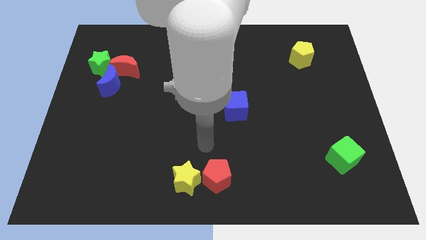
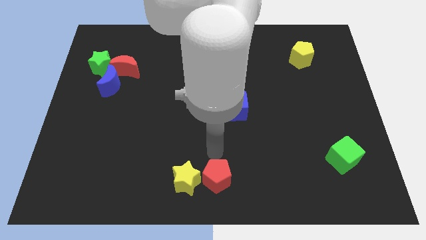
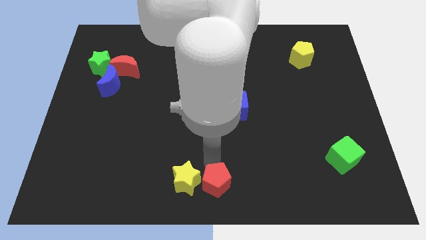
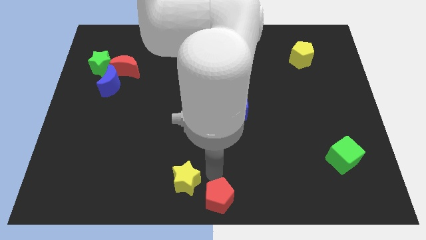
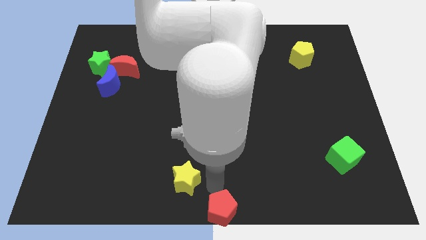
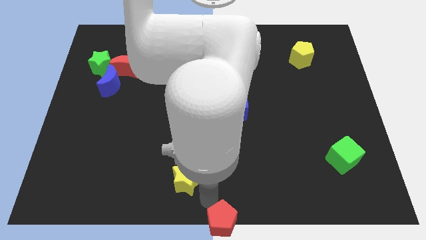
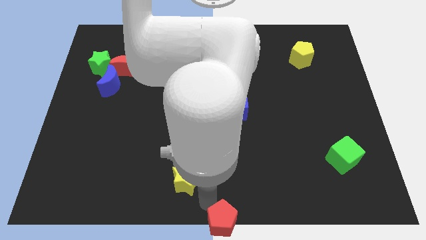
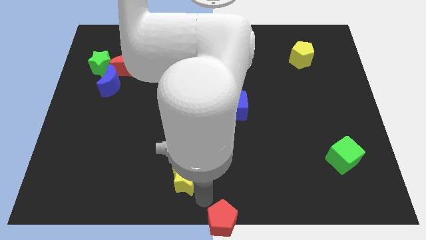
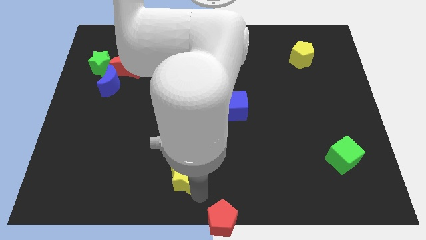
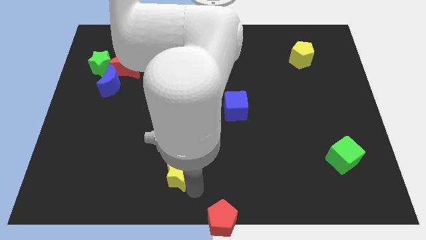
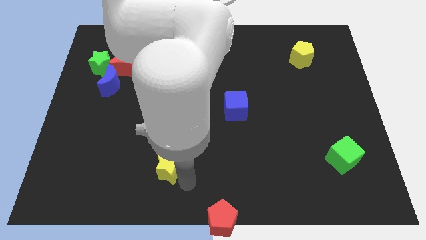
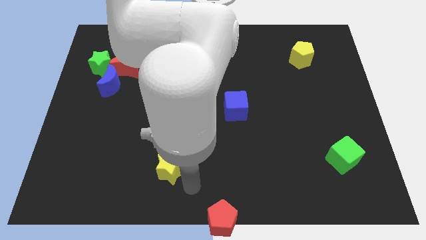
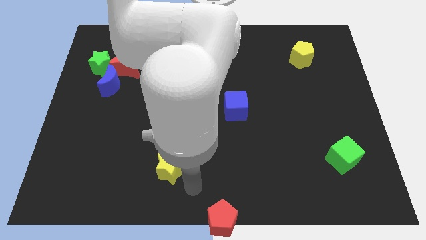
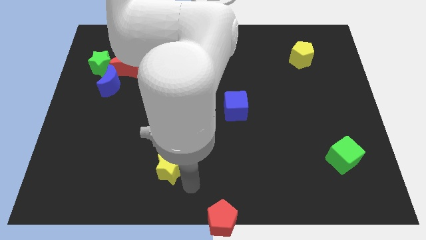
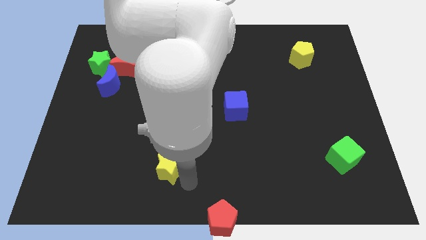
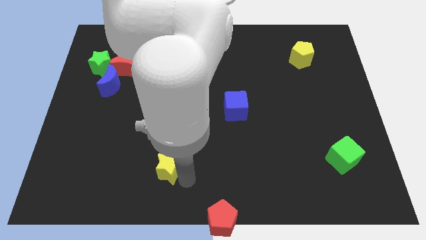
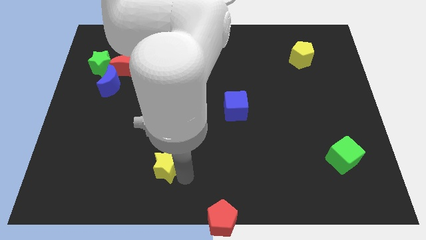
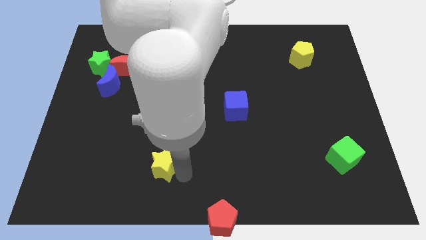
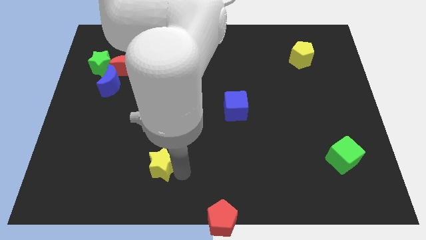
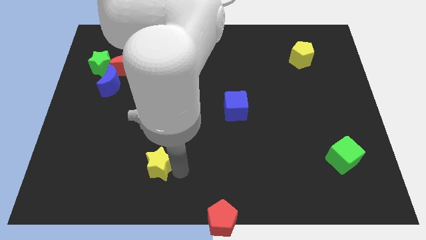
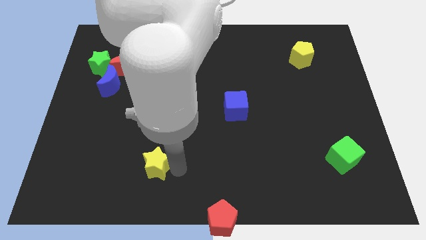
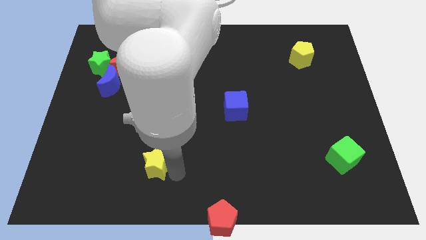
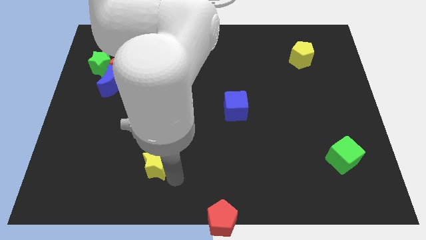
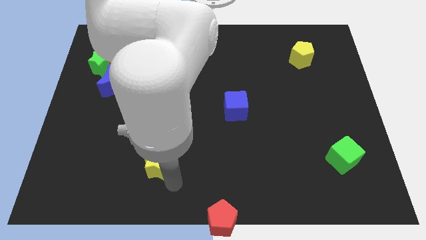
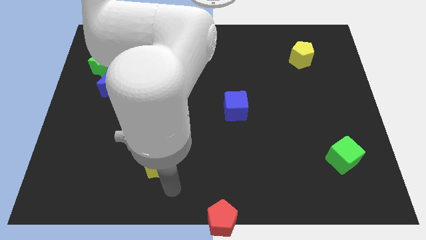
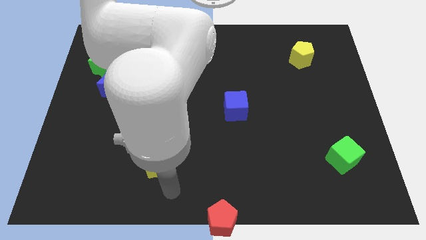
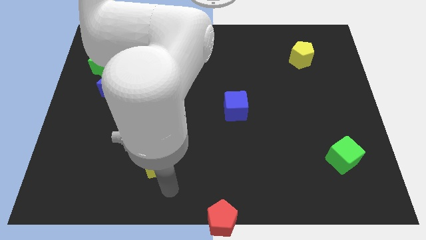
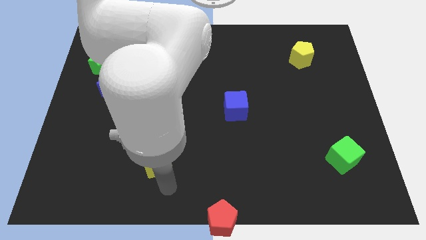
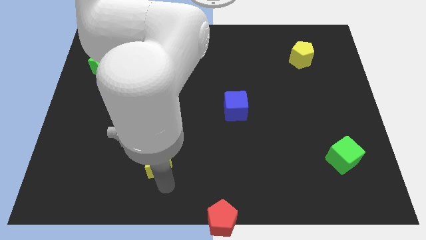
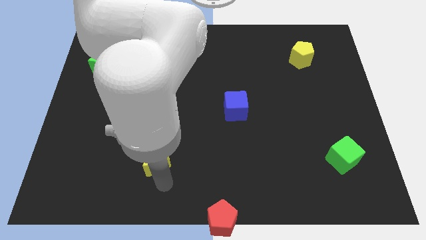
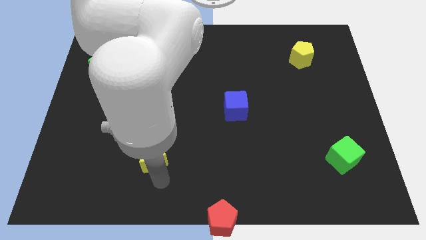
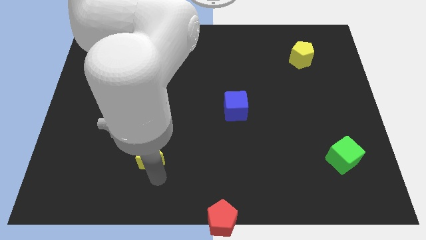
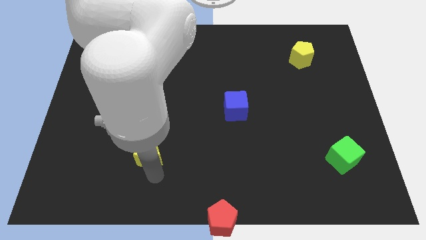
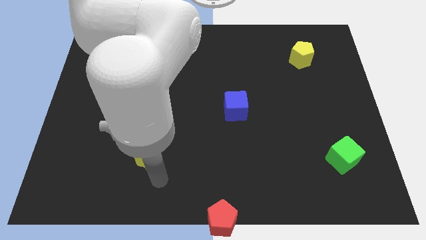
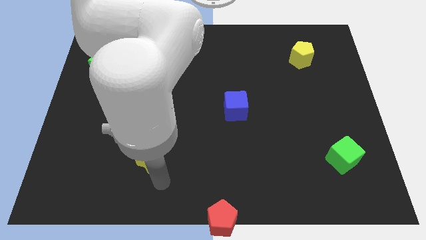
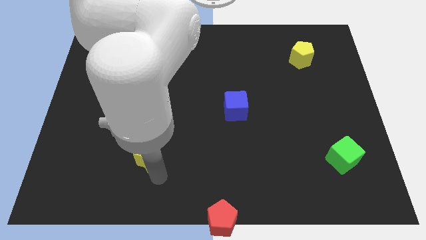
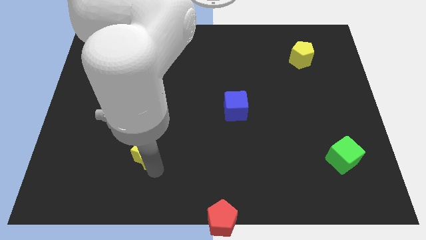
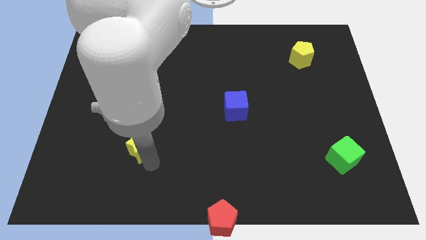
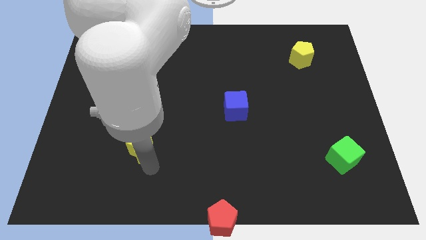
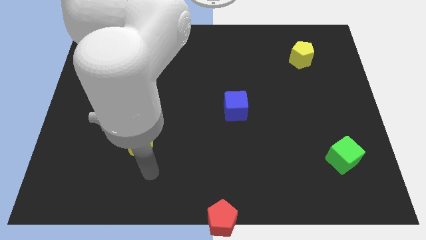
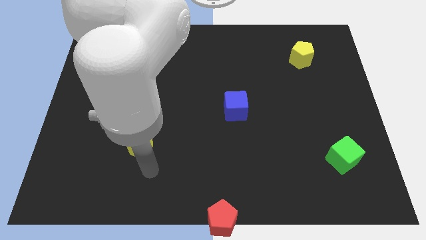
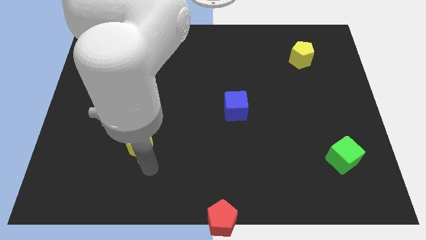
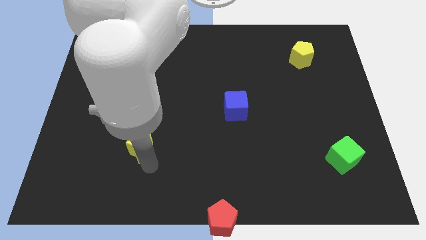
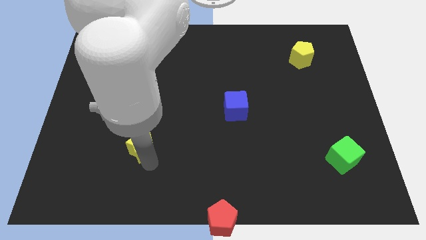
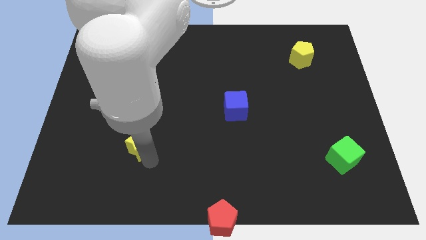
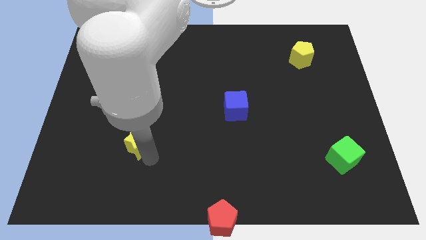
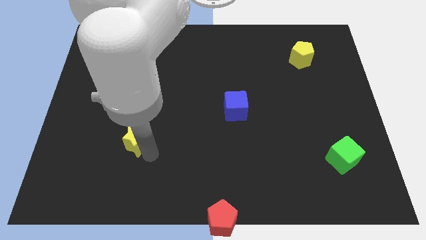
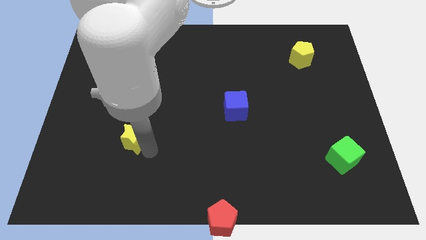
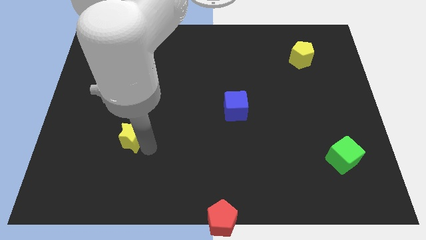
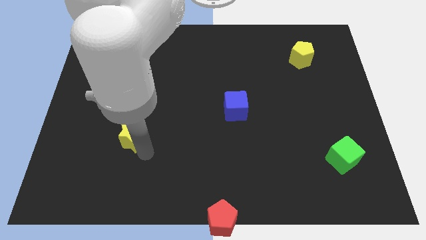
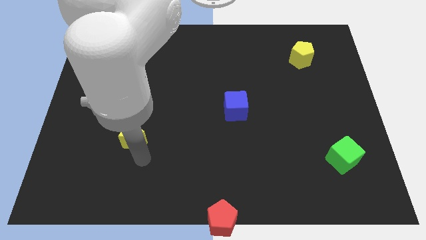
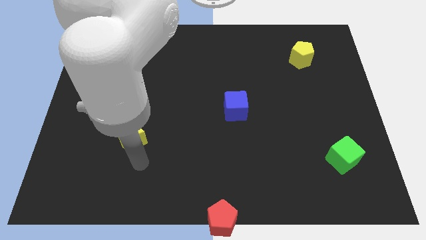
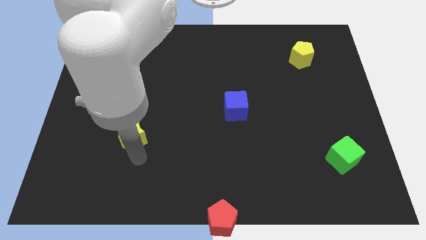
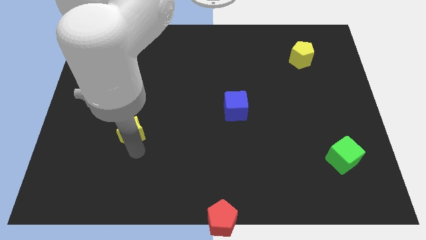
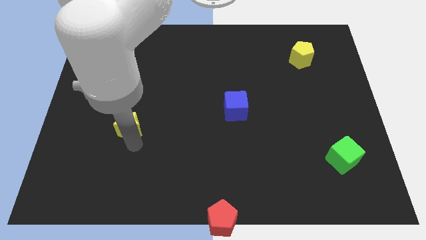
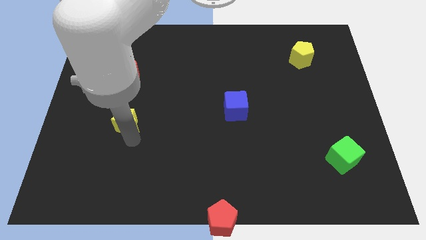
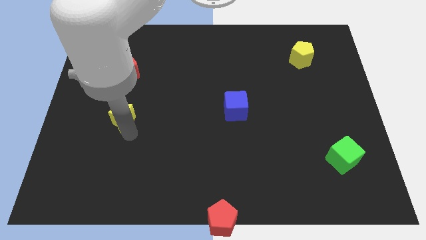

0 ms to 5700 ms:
move the yellow star to the bottom of the red moon

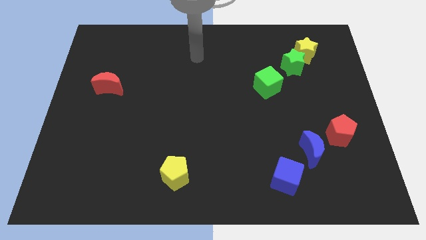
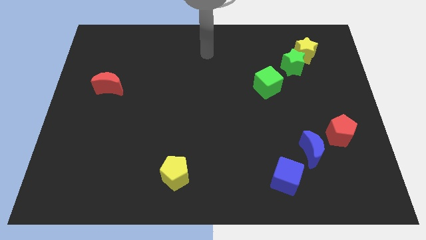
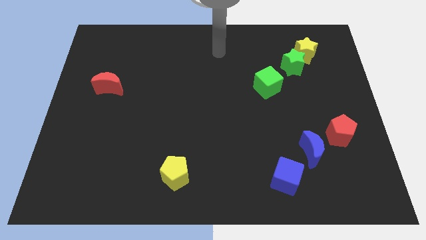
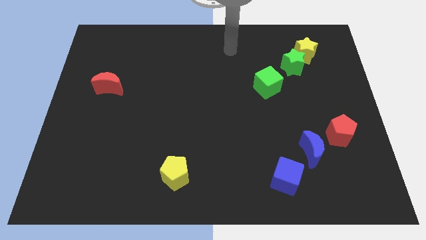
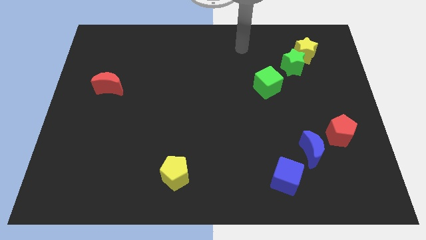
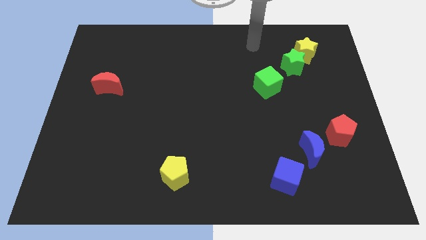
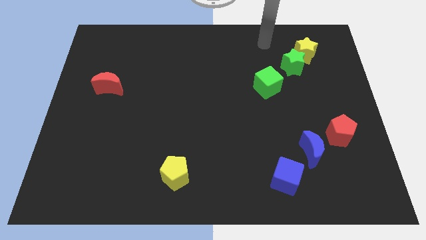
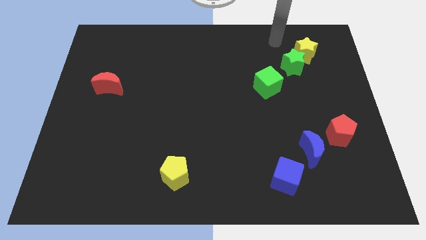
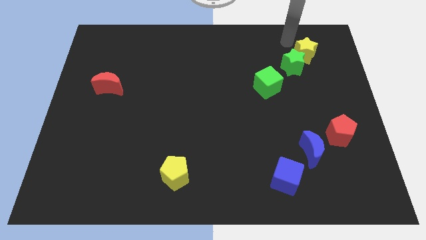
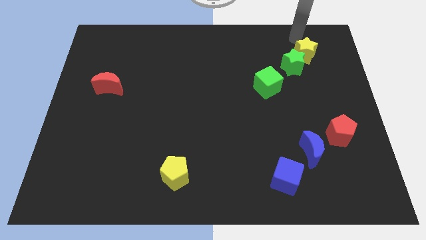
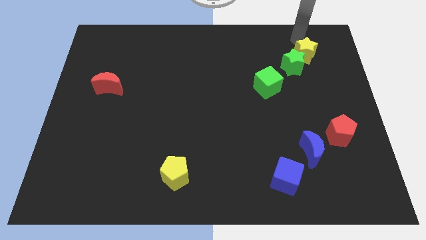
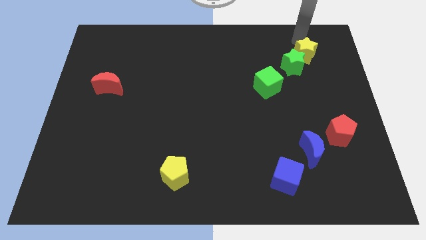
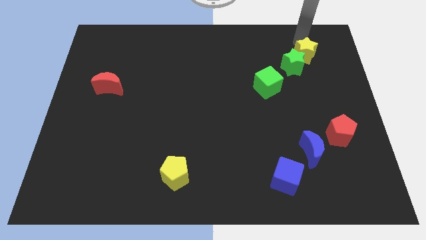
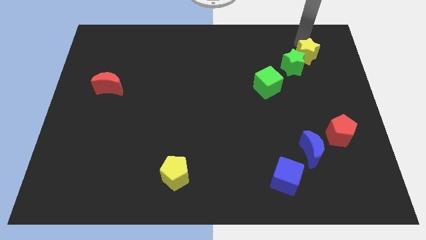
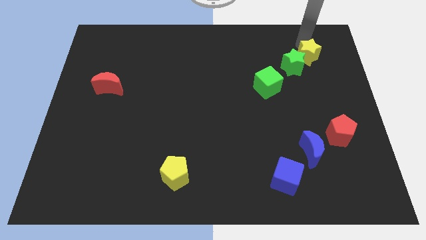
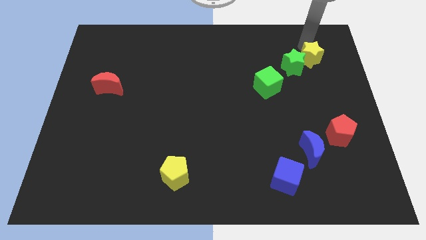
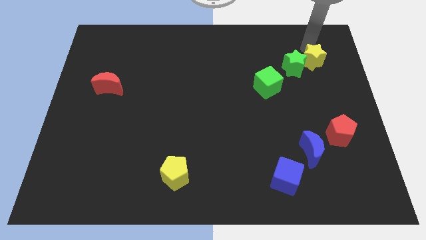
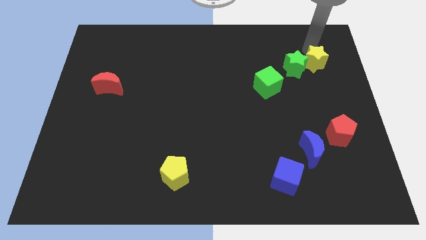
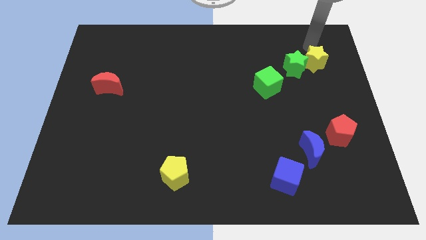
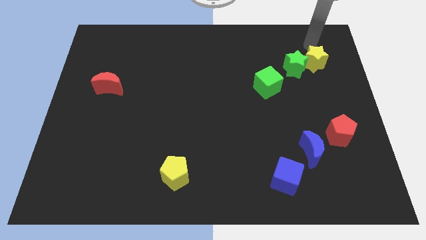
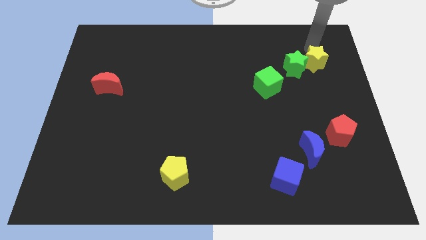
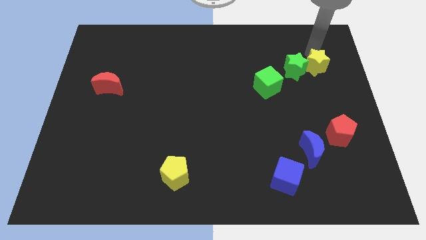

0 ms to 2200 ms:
move the yellow star to the bottom right side of the green star
